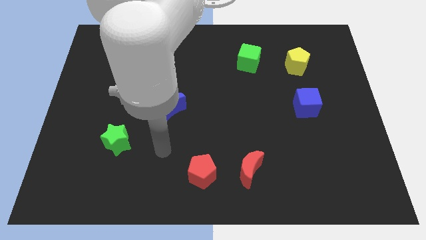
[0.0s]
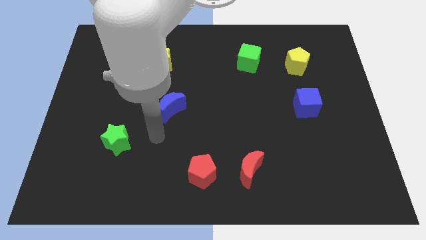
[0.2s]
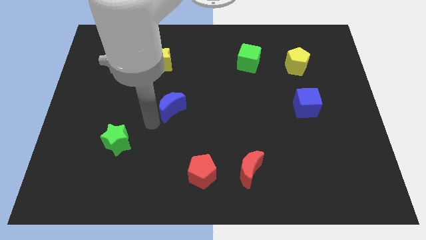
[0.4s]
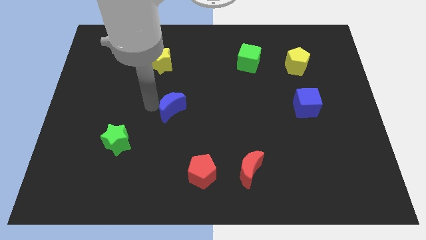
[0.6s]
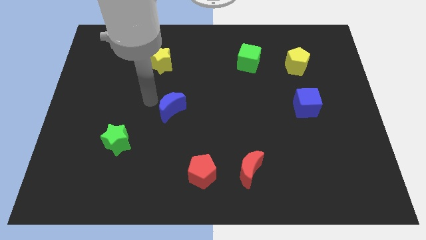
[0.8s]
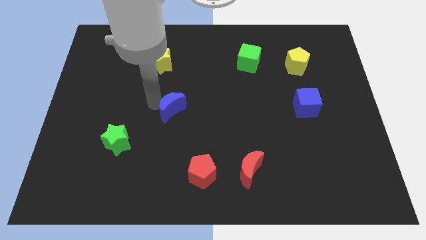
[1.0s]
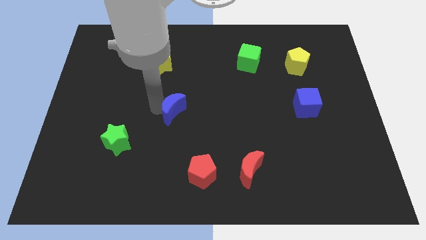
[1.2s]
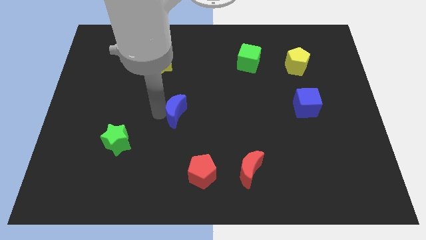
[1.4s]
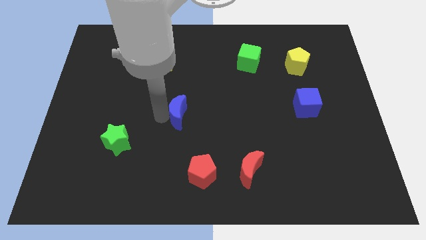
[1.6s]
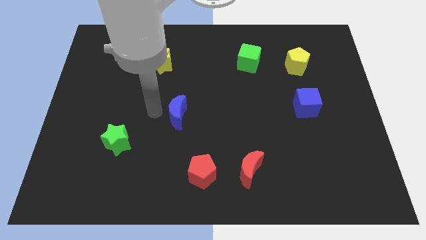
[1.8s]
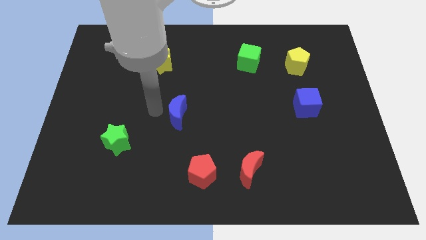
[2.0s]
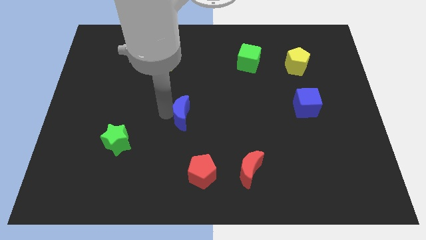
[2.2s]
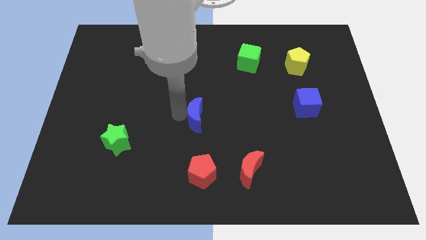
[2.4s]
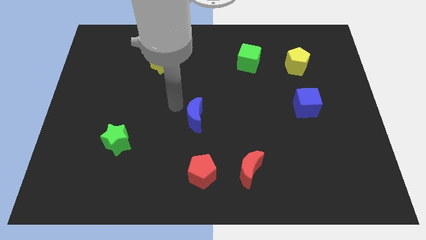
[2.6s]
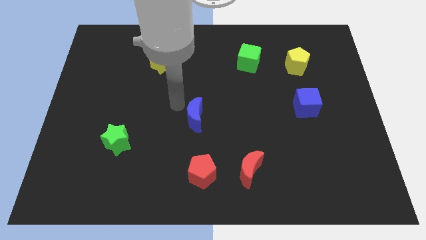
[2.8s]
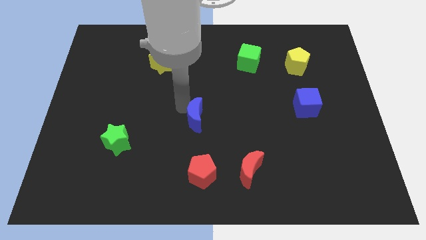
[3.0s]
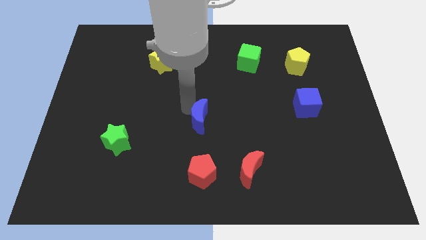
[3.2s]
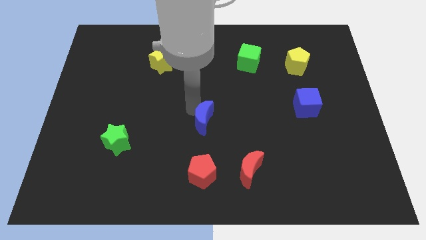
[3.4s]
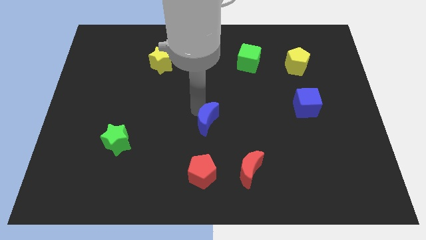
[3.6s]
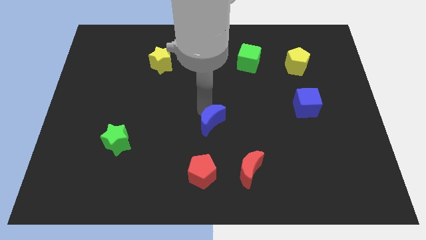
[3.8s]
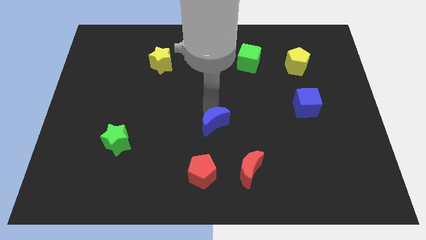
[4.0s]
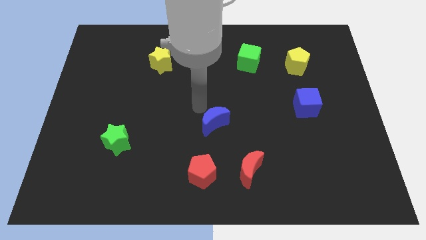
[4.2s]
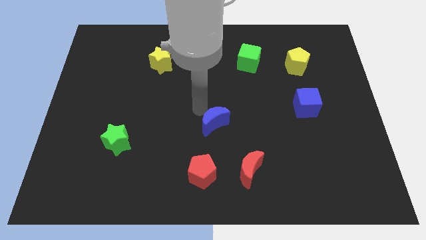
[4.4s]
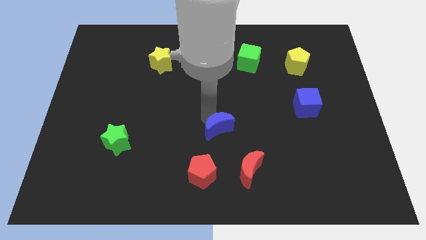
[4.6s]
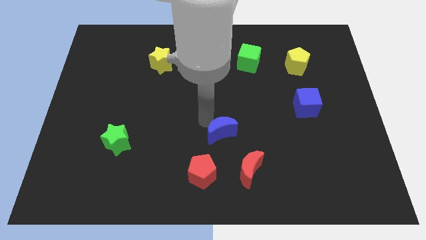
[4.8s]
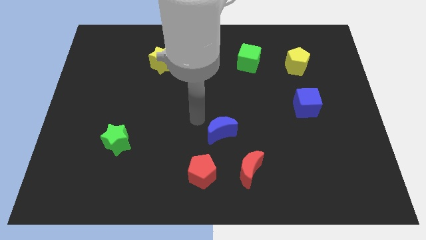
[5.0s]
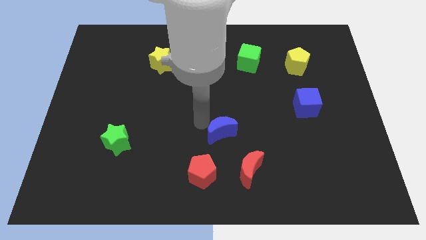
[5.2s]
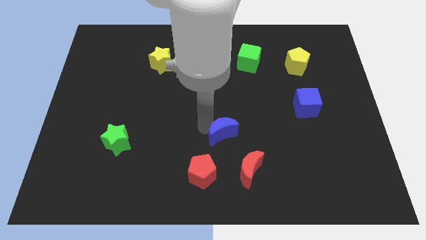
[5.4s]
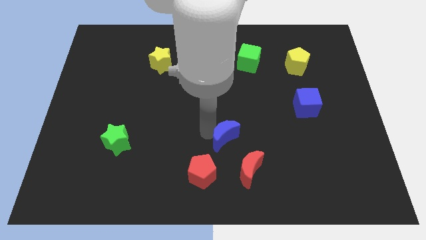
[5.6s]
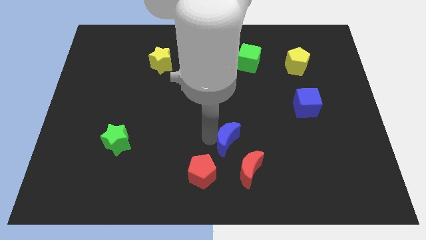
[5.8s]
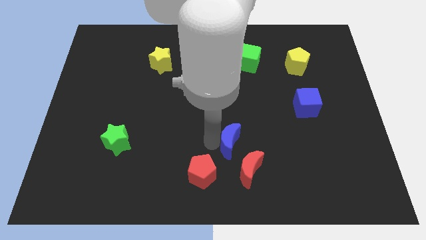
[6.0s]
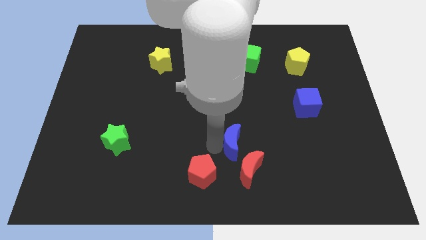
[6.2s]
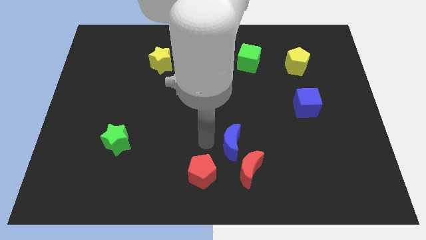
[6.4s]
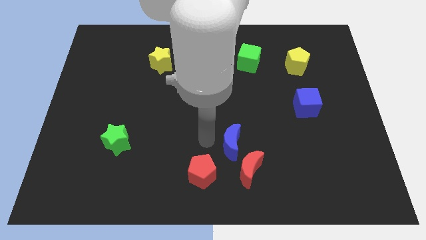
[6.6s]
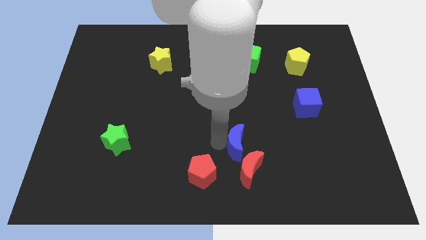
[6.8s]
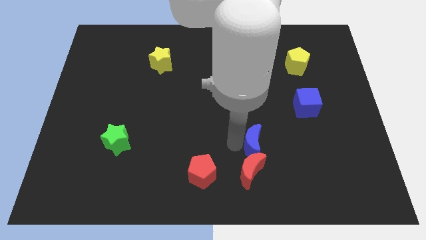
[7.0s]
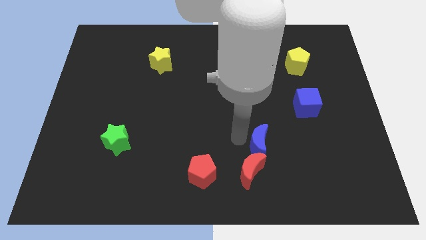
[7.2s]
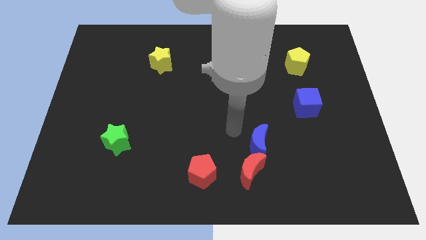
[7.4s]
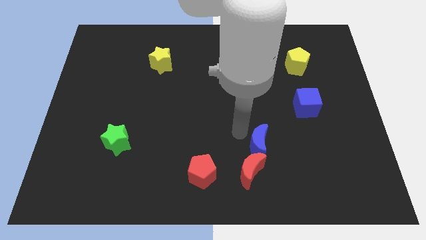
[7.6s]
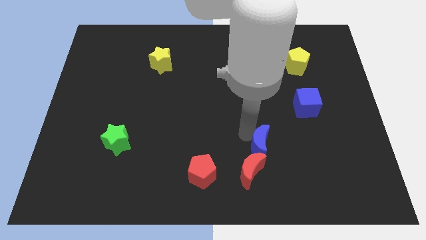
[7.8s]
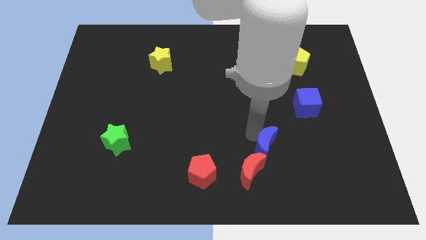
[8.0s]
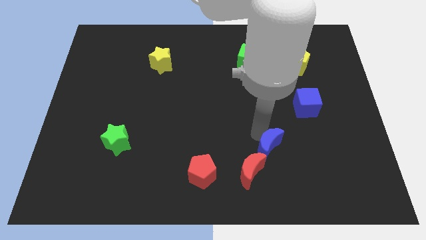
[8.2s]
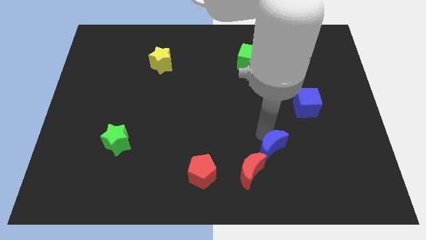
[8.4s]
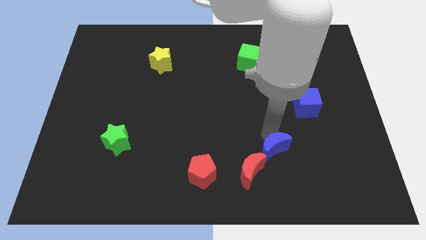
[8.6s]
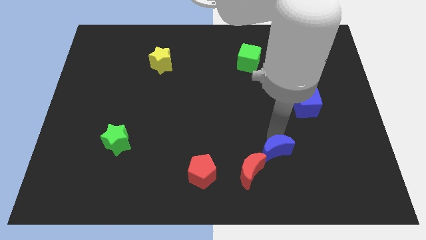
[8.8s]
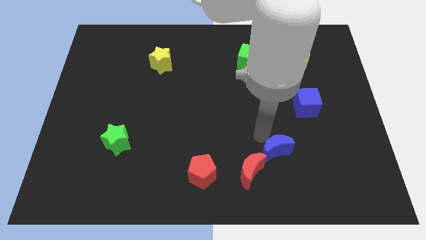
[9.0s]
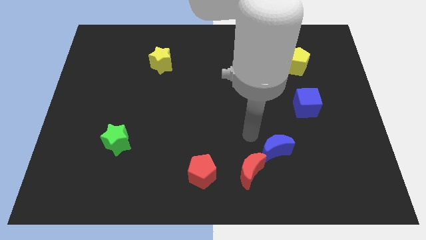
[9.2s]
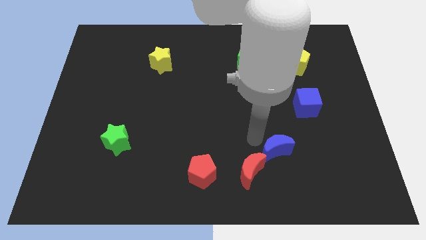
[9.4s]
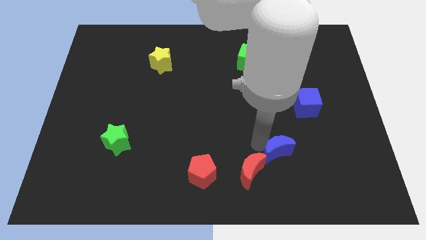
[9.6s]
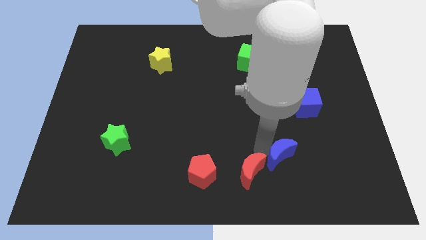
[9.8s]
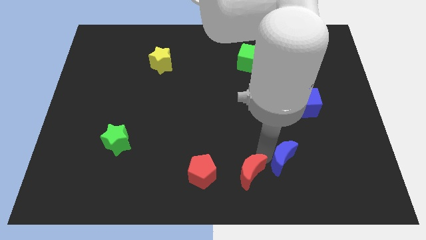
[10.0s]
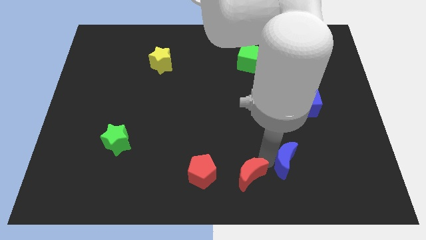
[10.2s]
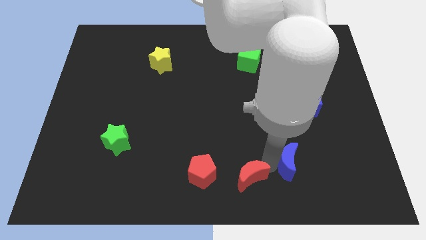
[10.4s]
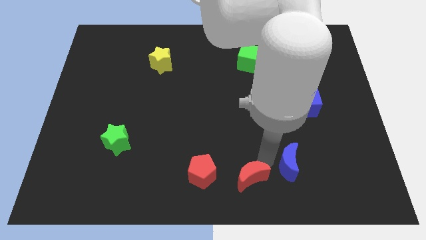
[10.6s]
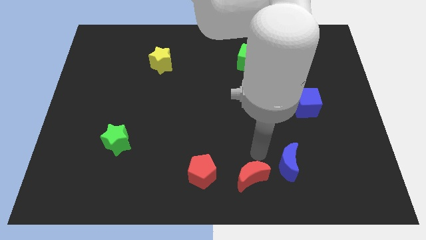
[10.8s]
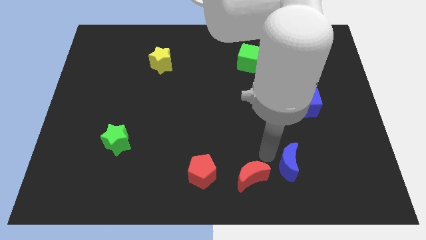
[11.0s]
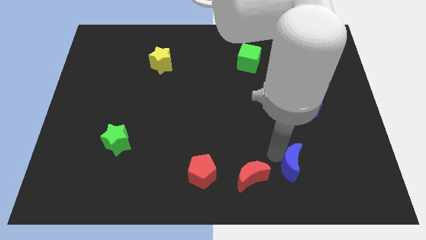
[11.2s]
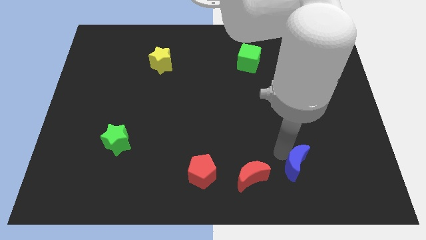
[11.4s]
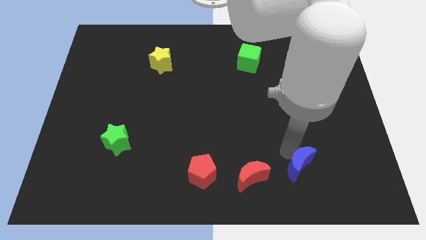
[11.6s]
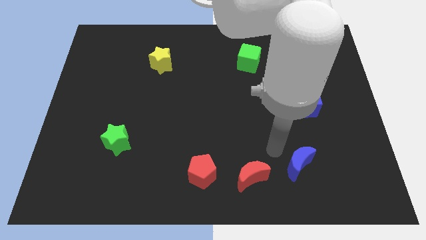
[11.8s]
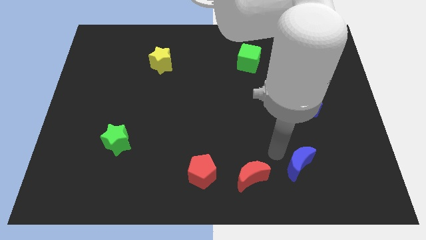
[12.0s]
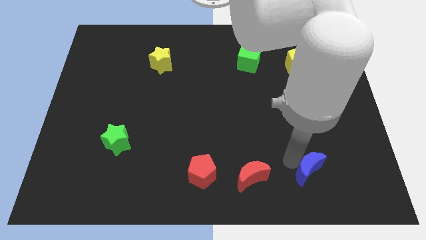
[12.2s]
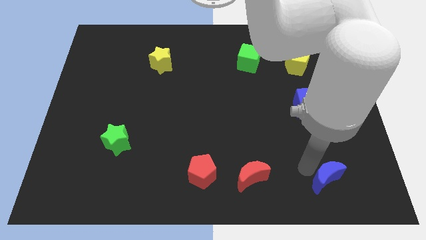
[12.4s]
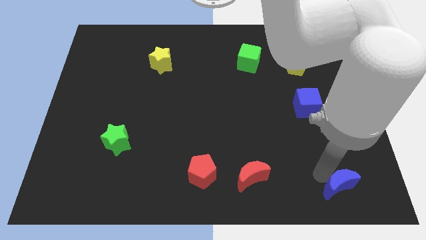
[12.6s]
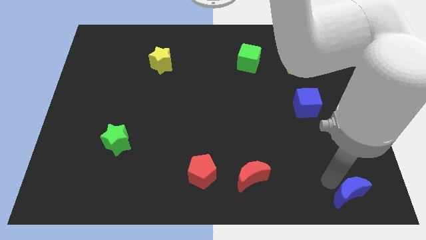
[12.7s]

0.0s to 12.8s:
push the blue moon to the lower right corner
